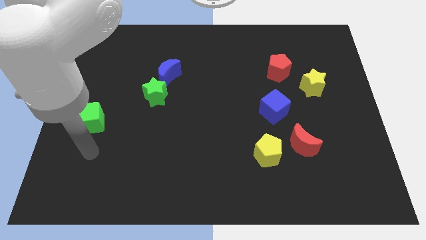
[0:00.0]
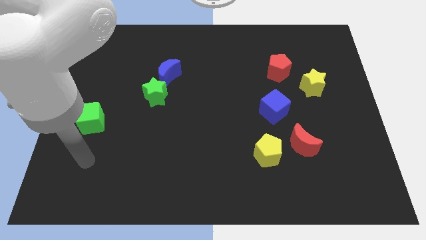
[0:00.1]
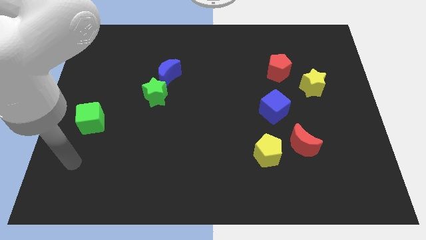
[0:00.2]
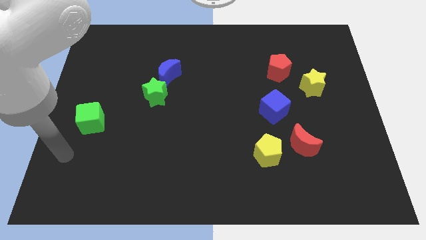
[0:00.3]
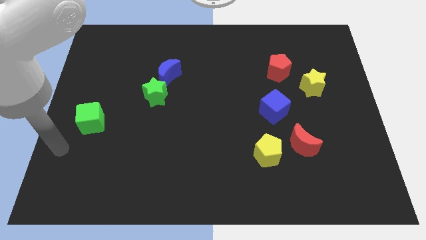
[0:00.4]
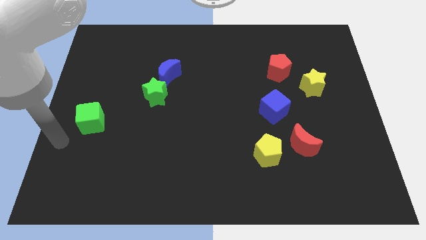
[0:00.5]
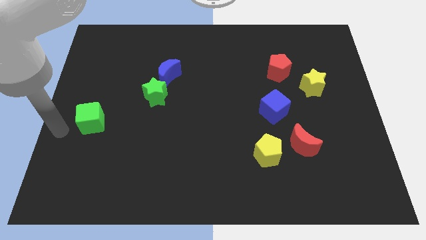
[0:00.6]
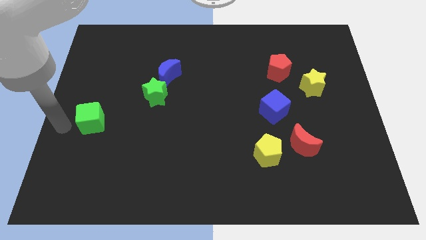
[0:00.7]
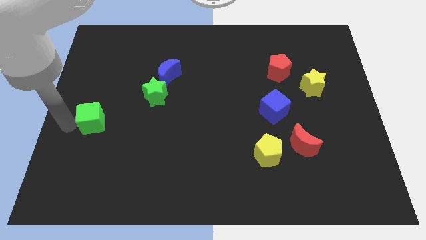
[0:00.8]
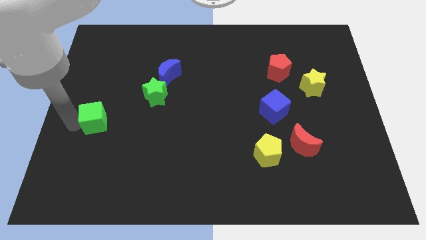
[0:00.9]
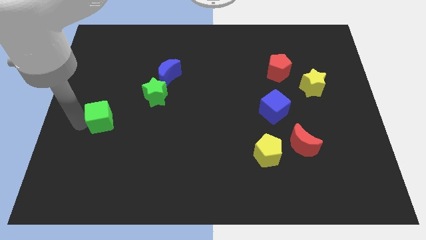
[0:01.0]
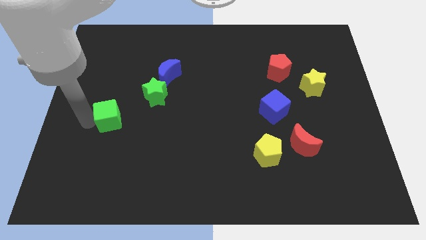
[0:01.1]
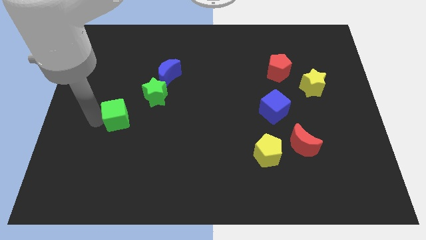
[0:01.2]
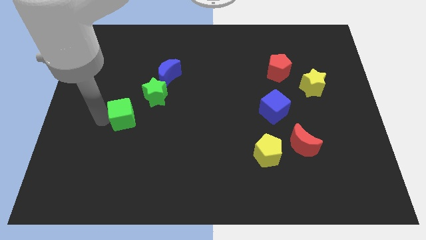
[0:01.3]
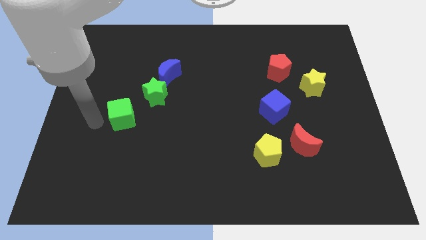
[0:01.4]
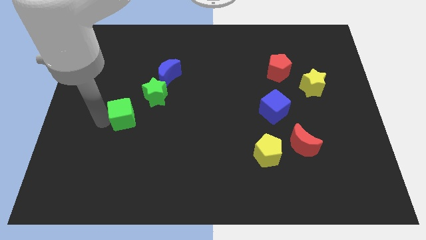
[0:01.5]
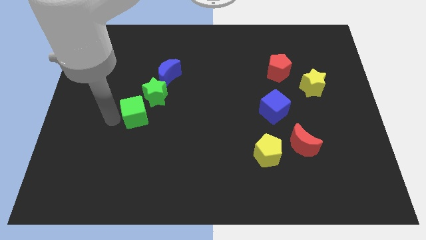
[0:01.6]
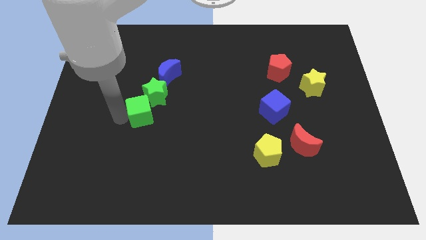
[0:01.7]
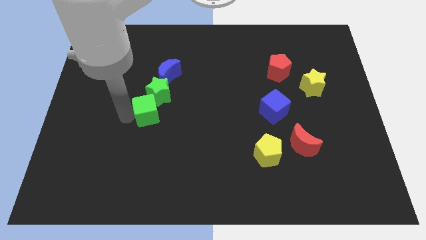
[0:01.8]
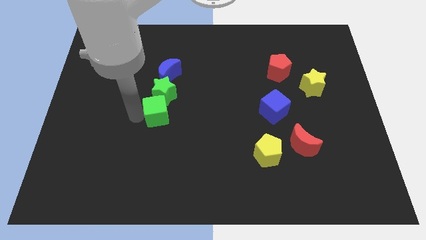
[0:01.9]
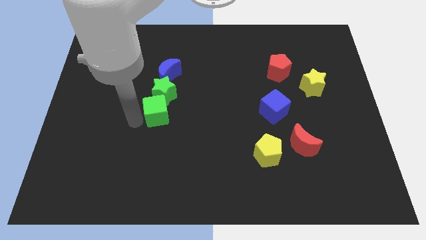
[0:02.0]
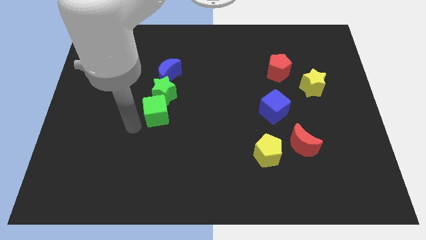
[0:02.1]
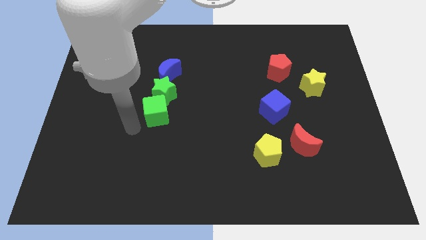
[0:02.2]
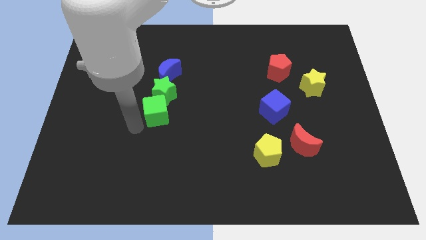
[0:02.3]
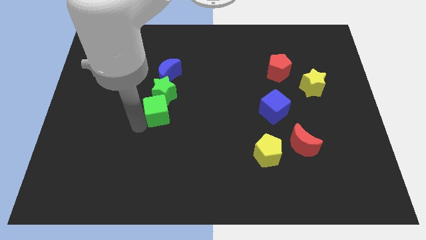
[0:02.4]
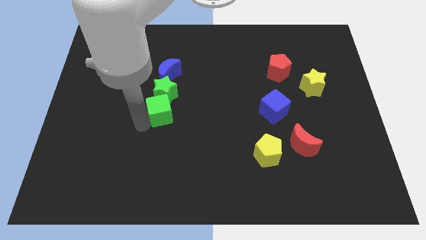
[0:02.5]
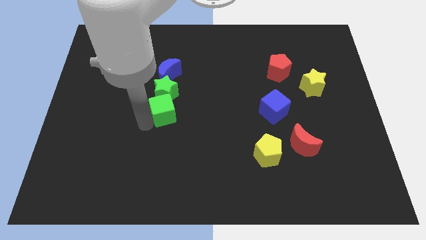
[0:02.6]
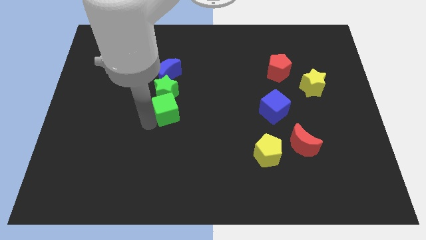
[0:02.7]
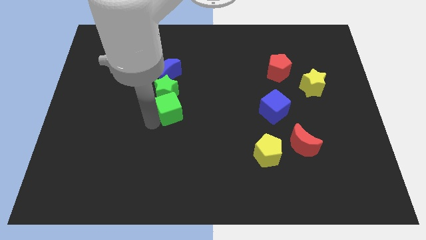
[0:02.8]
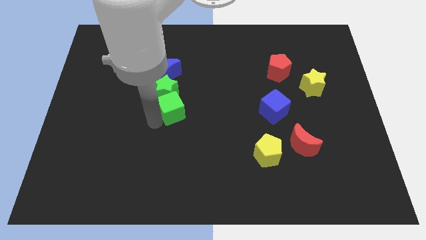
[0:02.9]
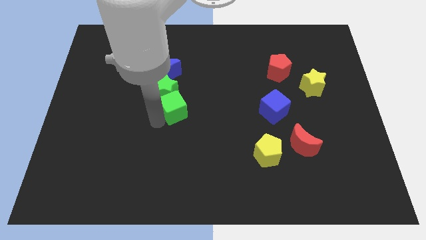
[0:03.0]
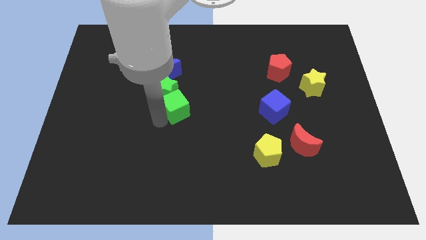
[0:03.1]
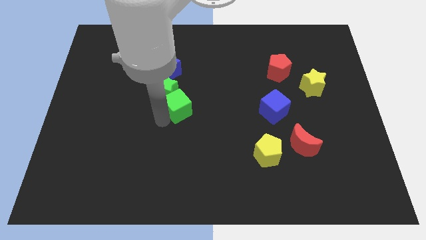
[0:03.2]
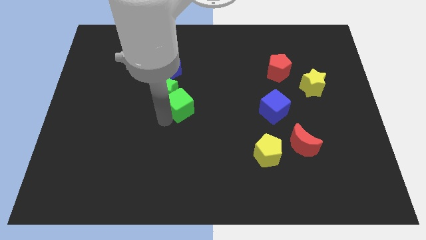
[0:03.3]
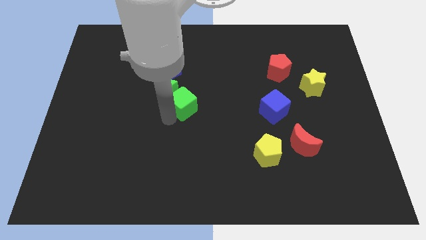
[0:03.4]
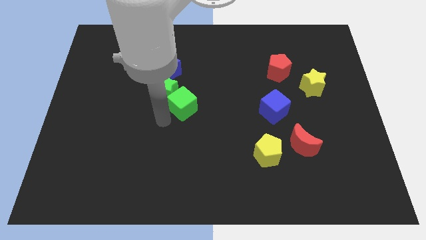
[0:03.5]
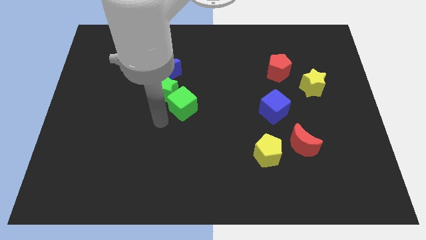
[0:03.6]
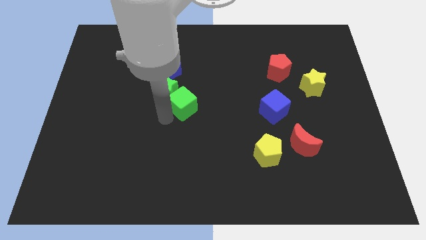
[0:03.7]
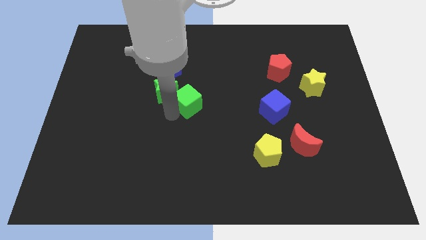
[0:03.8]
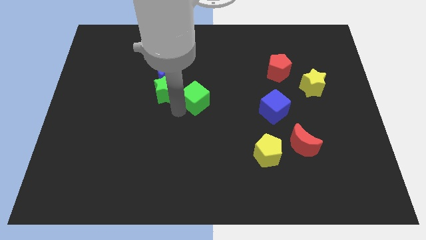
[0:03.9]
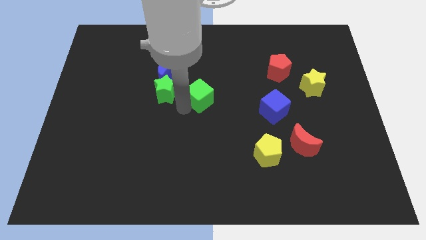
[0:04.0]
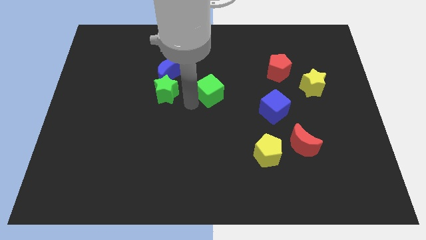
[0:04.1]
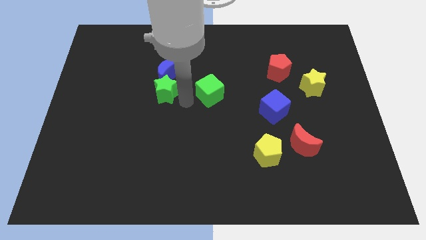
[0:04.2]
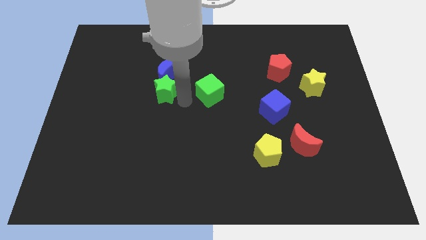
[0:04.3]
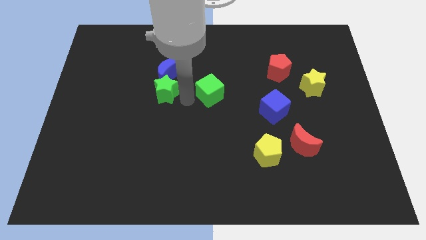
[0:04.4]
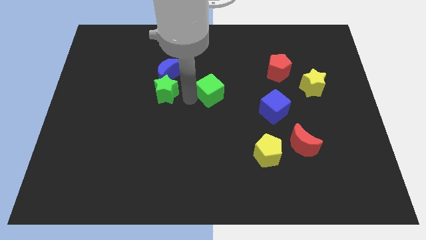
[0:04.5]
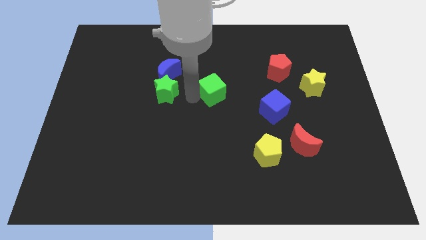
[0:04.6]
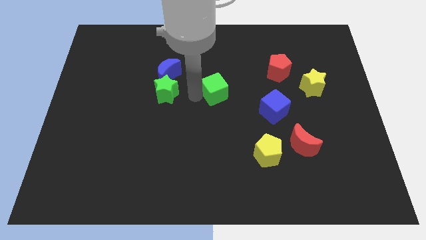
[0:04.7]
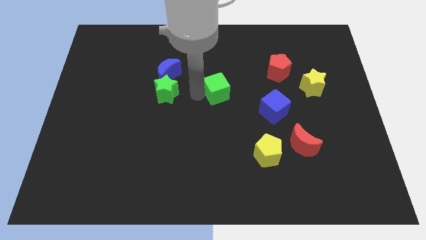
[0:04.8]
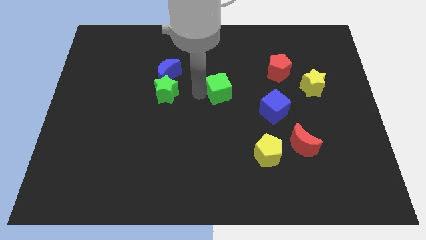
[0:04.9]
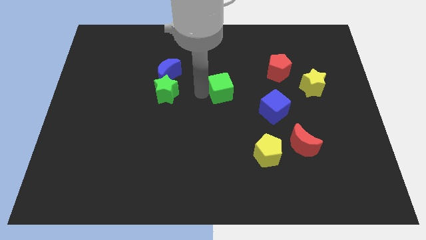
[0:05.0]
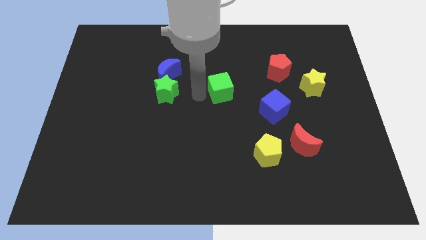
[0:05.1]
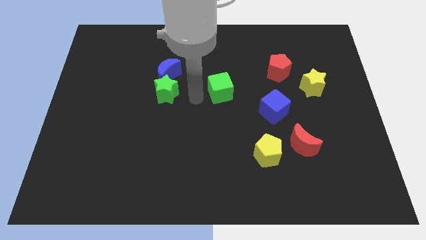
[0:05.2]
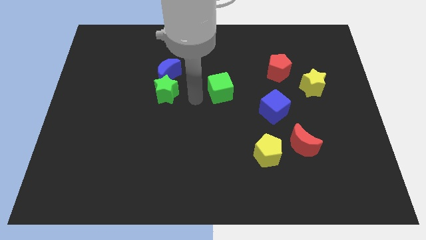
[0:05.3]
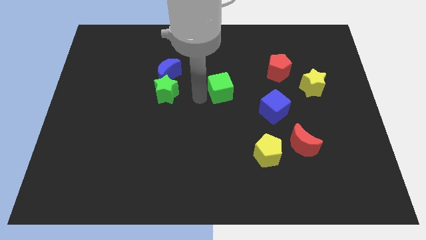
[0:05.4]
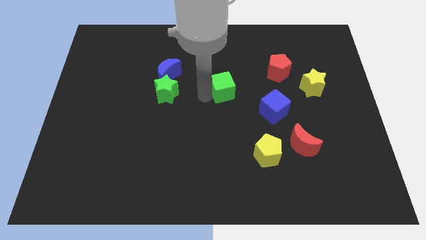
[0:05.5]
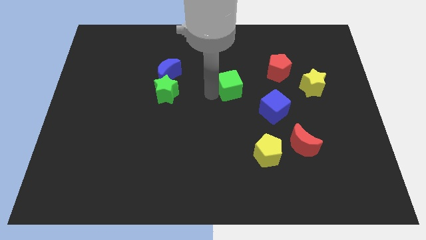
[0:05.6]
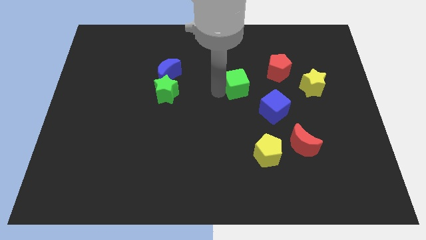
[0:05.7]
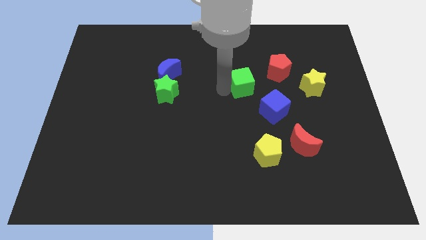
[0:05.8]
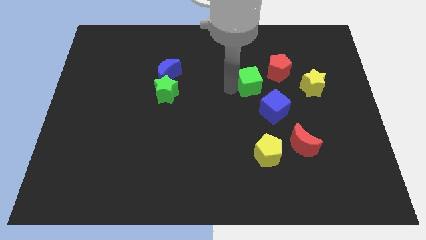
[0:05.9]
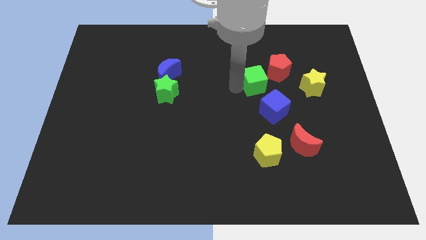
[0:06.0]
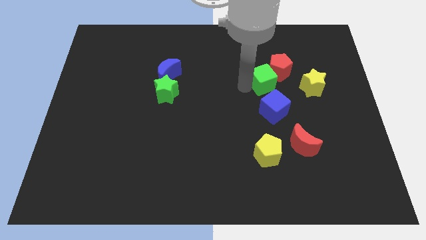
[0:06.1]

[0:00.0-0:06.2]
put the green cube to the red pentagon

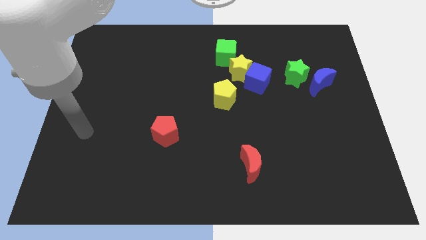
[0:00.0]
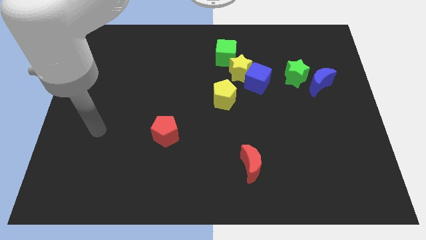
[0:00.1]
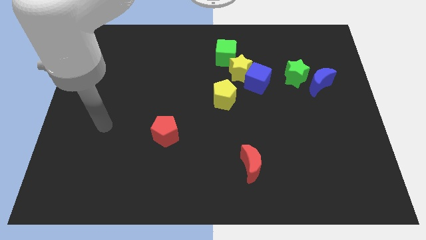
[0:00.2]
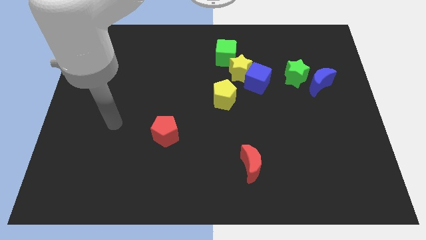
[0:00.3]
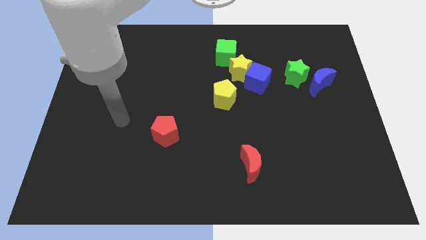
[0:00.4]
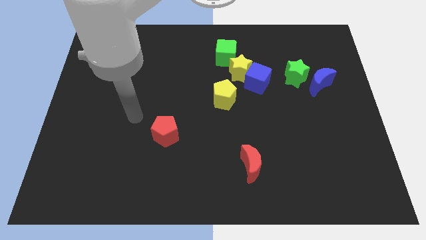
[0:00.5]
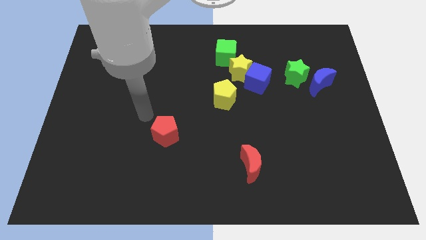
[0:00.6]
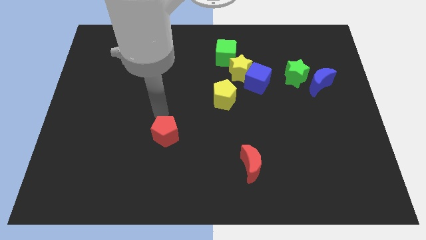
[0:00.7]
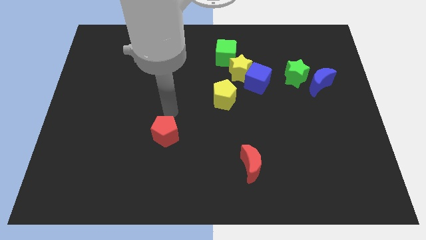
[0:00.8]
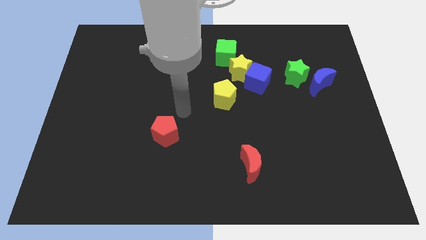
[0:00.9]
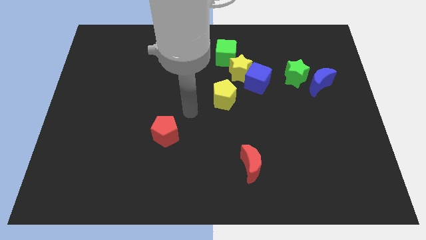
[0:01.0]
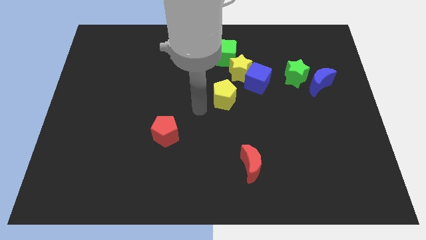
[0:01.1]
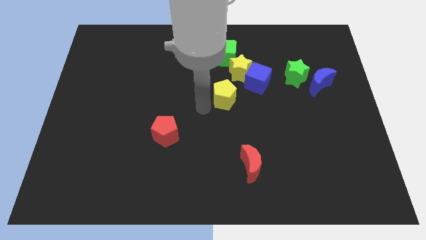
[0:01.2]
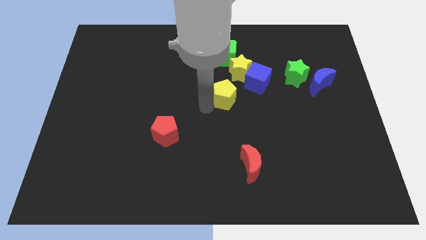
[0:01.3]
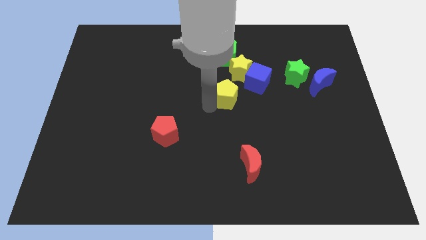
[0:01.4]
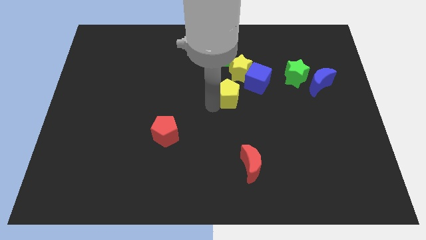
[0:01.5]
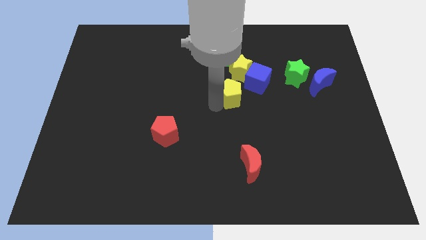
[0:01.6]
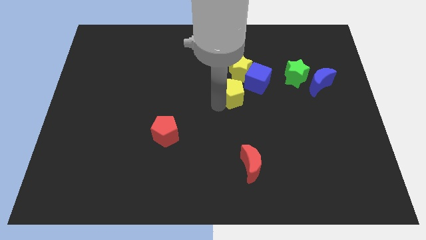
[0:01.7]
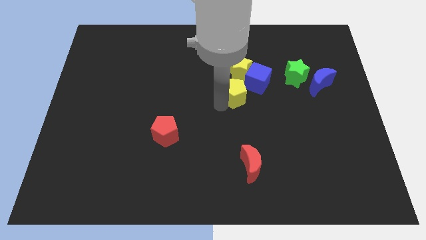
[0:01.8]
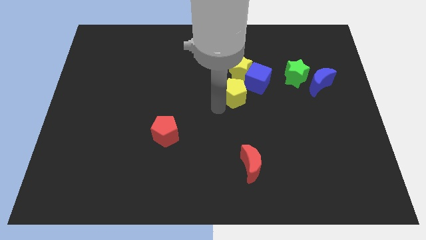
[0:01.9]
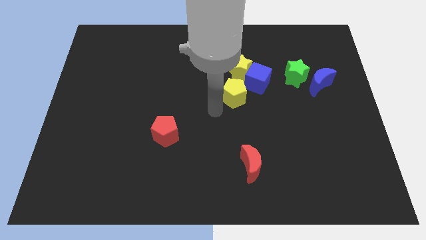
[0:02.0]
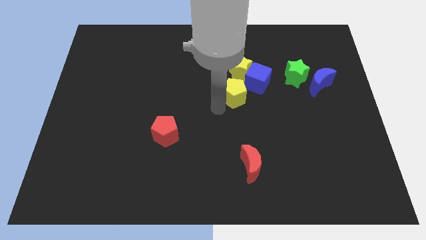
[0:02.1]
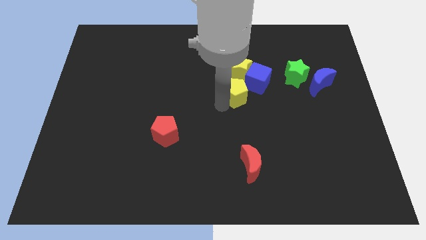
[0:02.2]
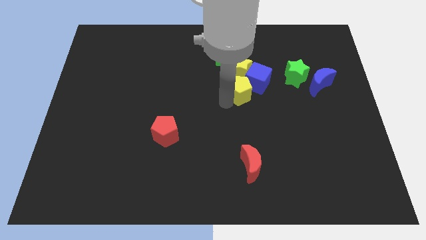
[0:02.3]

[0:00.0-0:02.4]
slide the yellow pentagon towards the blue cube
